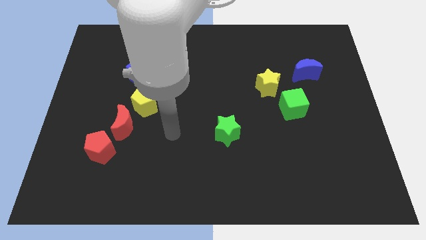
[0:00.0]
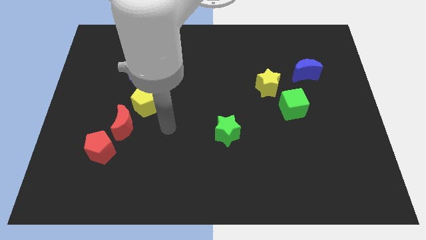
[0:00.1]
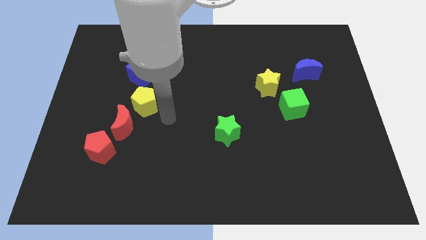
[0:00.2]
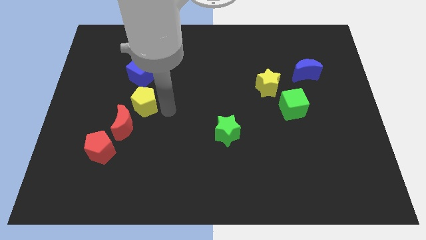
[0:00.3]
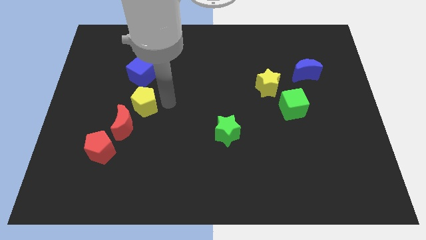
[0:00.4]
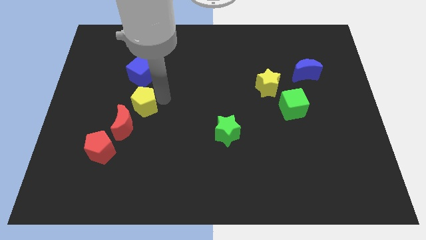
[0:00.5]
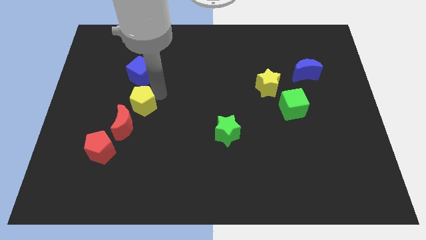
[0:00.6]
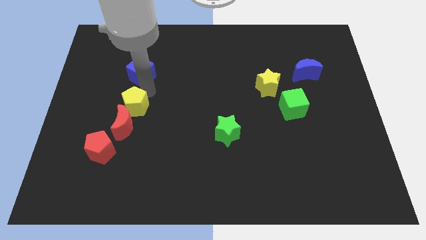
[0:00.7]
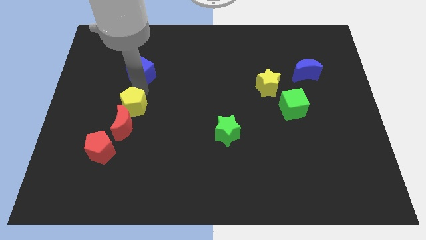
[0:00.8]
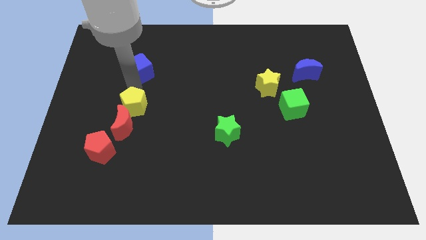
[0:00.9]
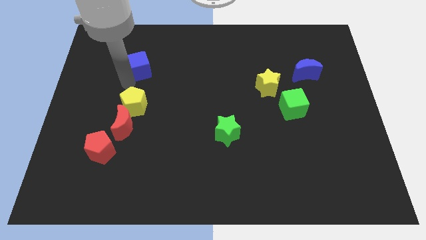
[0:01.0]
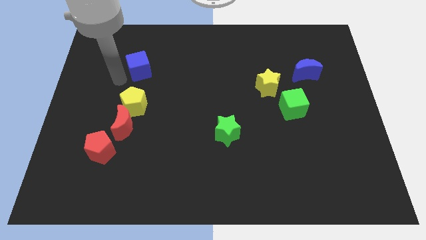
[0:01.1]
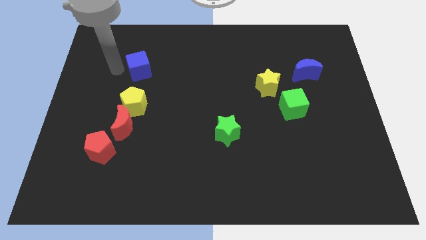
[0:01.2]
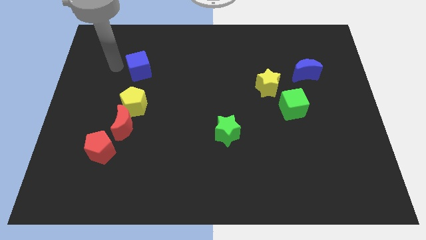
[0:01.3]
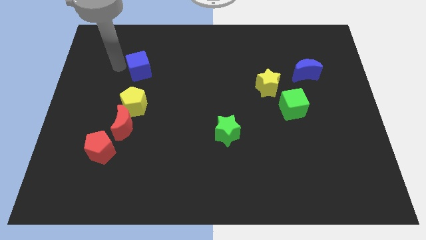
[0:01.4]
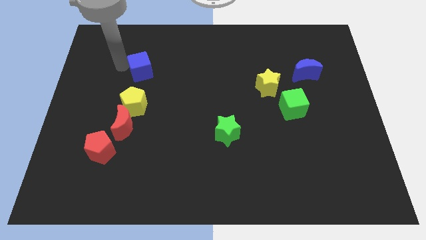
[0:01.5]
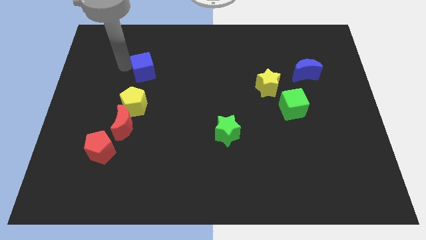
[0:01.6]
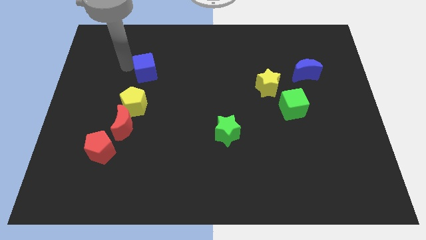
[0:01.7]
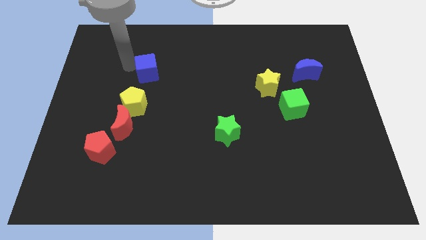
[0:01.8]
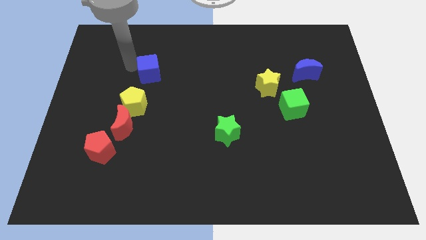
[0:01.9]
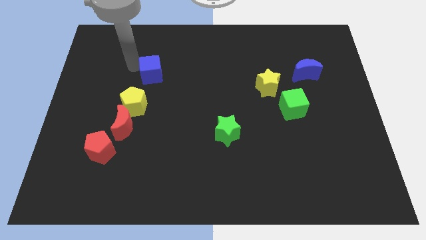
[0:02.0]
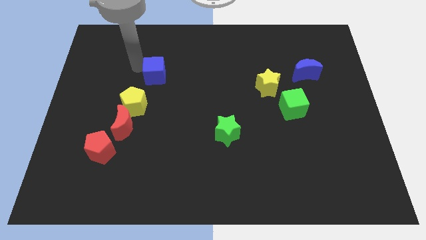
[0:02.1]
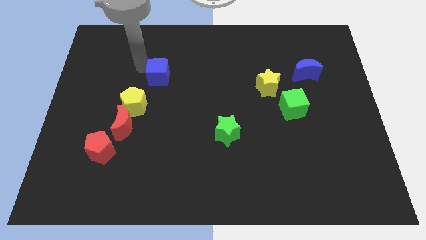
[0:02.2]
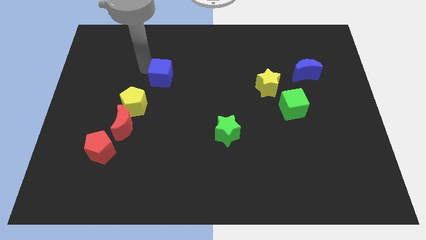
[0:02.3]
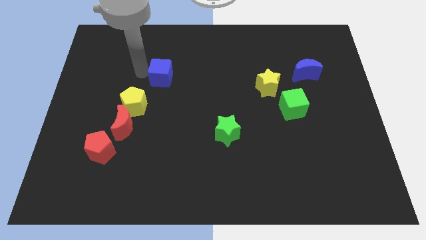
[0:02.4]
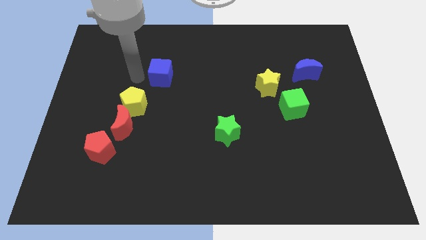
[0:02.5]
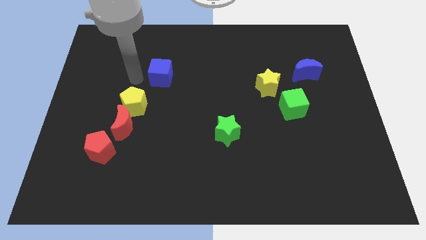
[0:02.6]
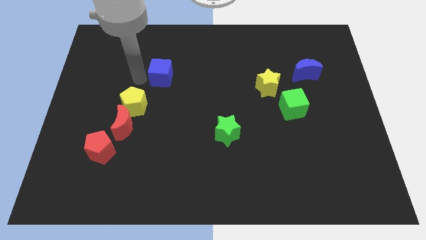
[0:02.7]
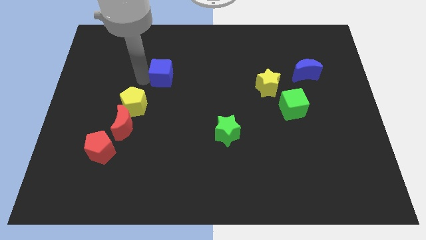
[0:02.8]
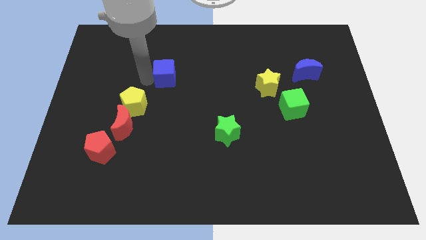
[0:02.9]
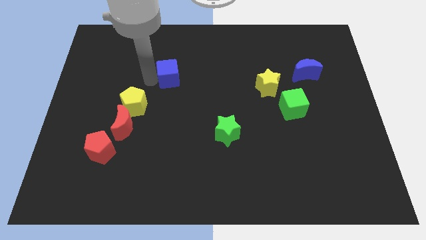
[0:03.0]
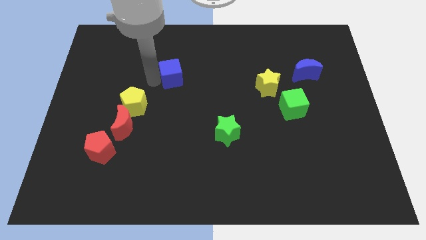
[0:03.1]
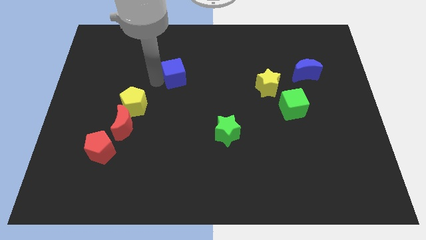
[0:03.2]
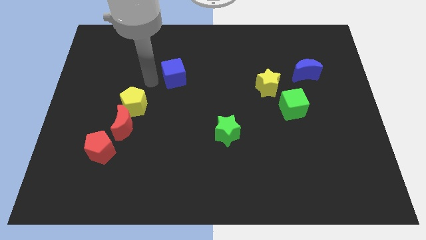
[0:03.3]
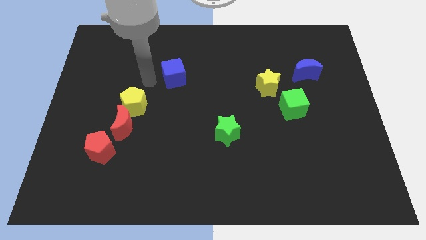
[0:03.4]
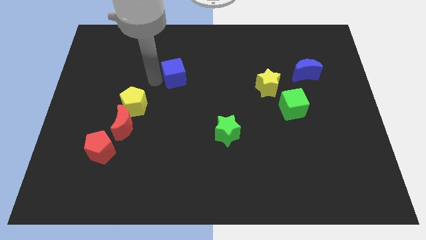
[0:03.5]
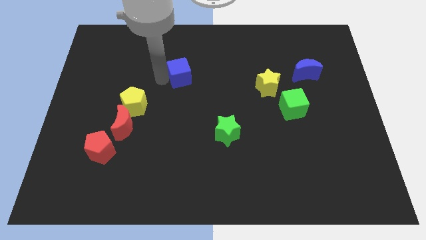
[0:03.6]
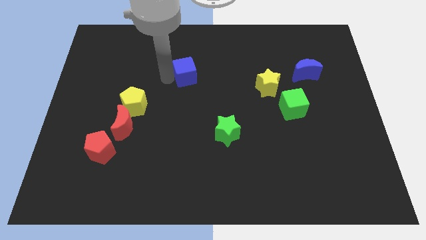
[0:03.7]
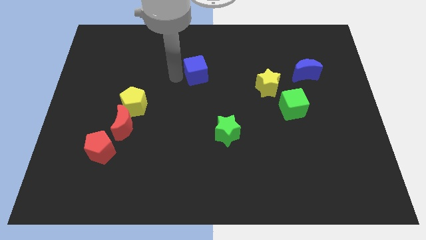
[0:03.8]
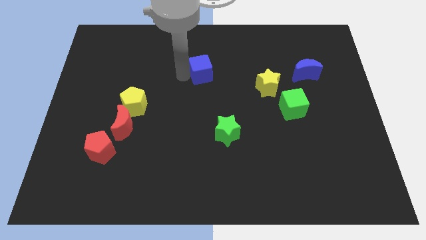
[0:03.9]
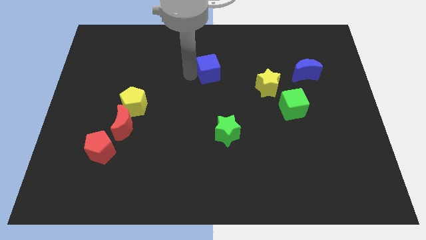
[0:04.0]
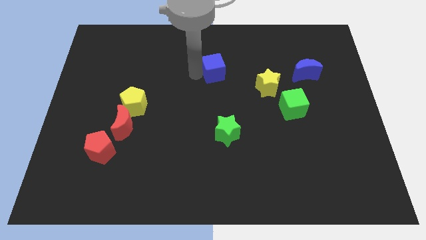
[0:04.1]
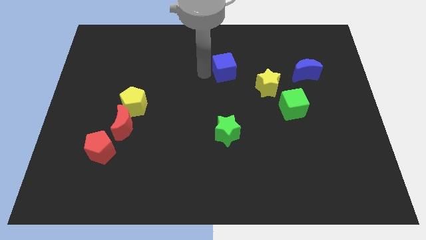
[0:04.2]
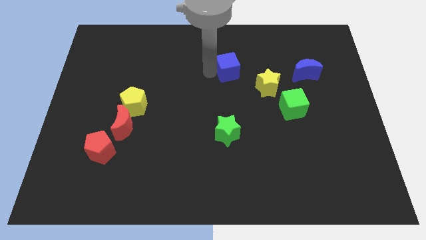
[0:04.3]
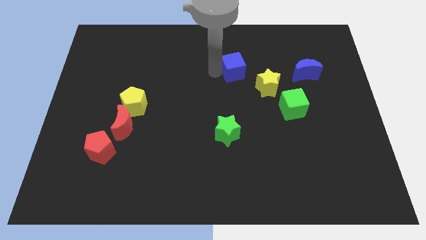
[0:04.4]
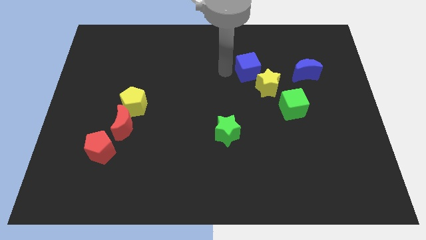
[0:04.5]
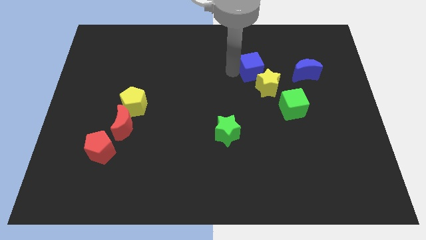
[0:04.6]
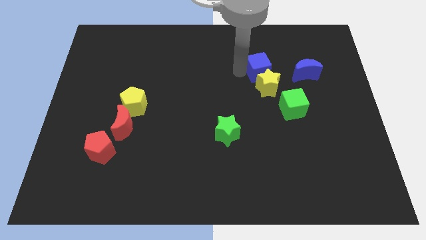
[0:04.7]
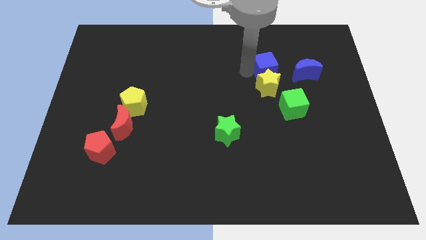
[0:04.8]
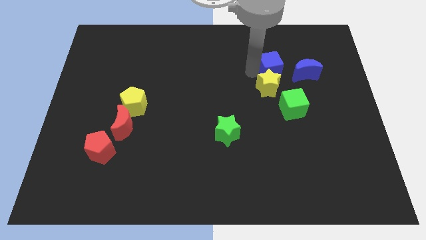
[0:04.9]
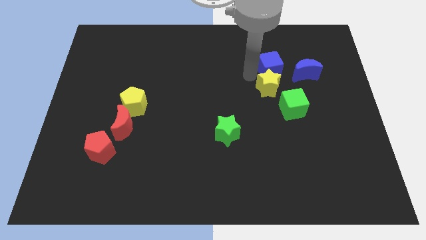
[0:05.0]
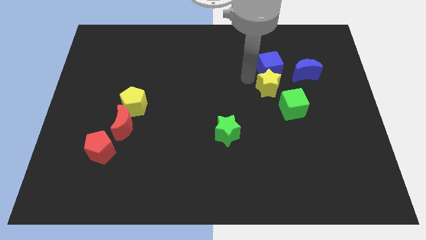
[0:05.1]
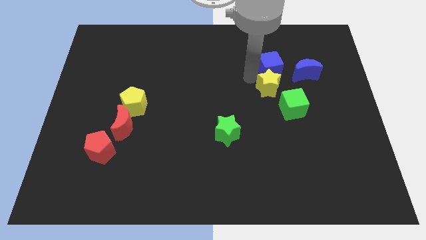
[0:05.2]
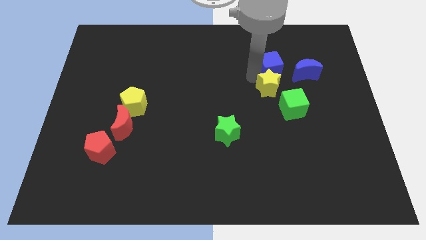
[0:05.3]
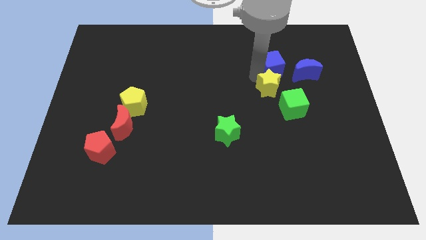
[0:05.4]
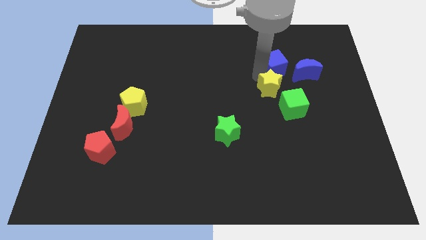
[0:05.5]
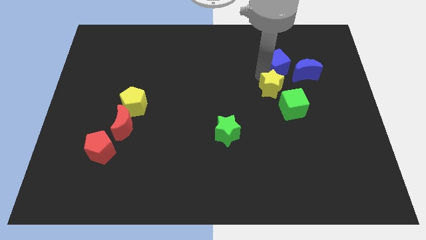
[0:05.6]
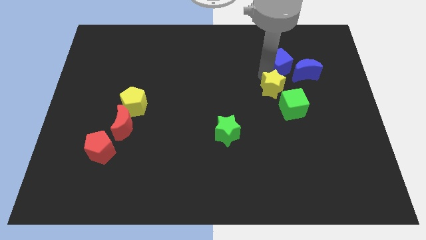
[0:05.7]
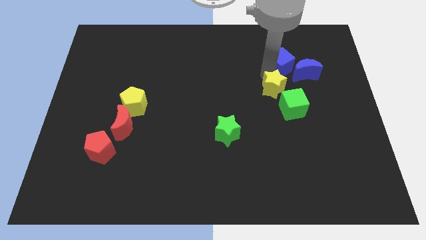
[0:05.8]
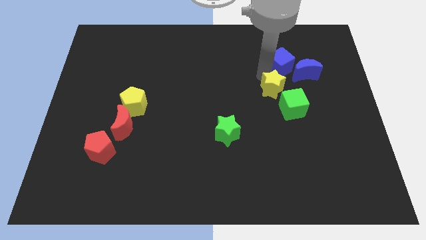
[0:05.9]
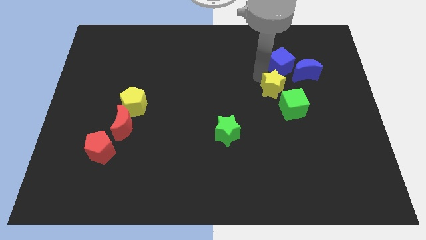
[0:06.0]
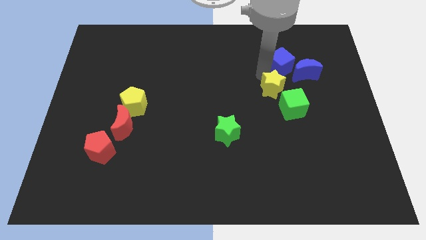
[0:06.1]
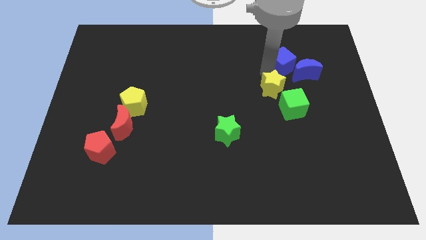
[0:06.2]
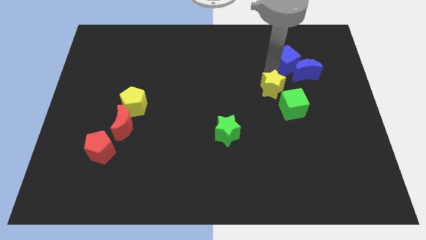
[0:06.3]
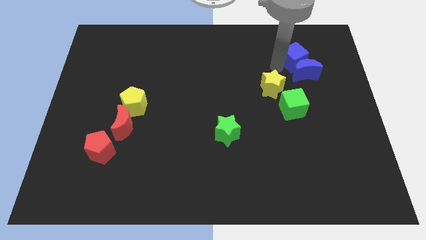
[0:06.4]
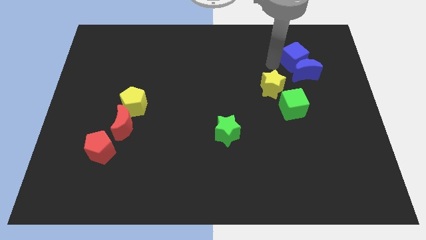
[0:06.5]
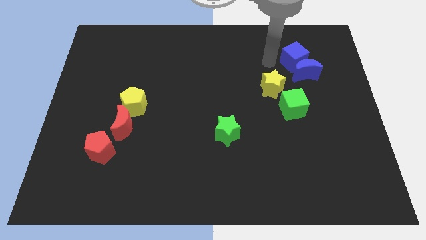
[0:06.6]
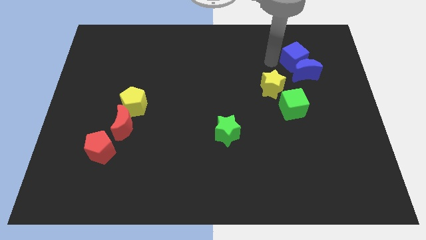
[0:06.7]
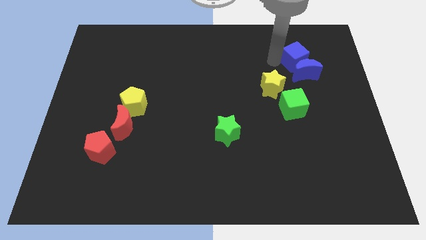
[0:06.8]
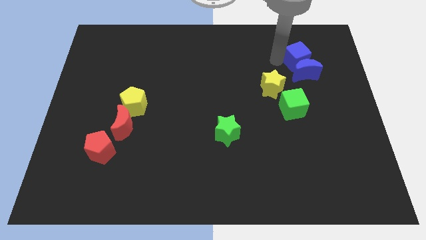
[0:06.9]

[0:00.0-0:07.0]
push the blue cube to the top right side of the blue moon
